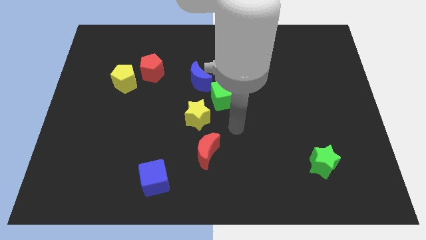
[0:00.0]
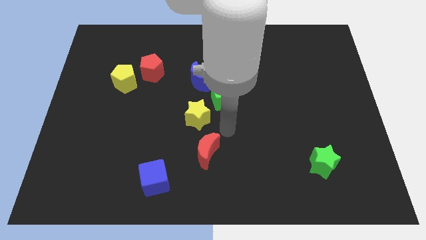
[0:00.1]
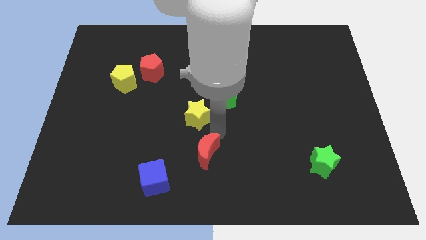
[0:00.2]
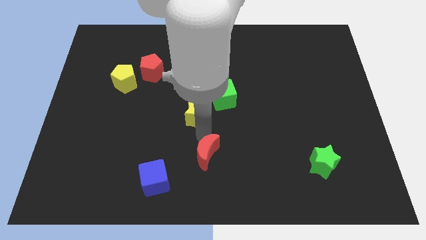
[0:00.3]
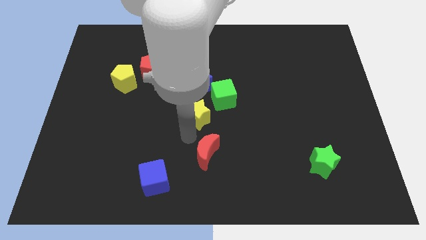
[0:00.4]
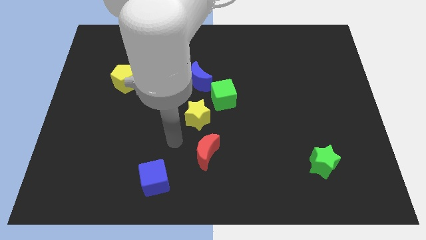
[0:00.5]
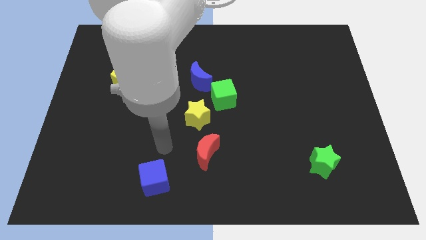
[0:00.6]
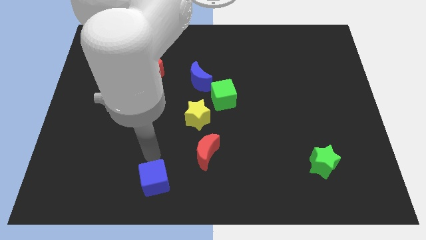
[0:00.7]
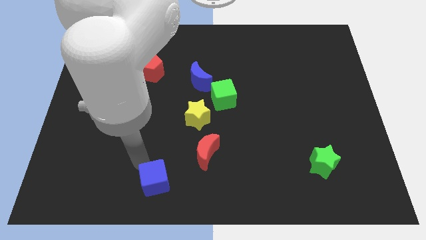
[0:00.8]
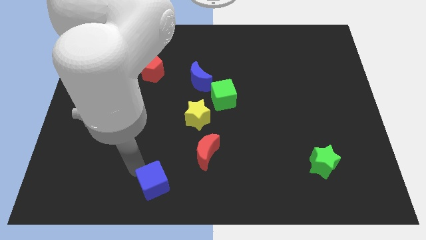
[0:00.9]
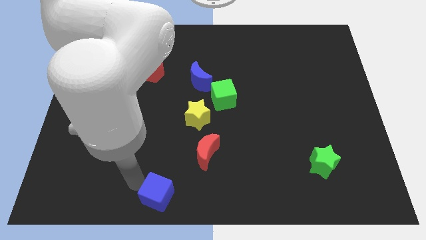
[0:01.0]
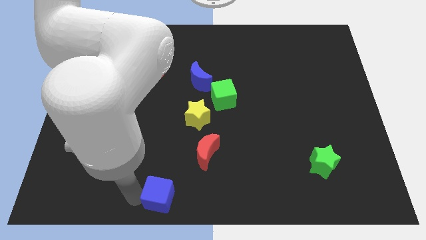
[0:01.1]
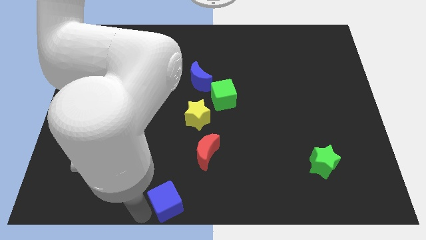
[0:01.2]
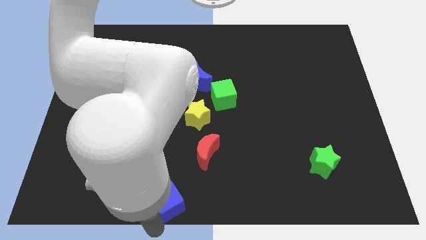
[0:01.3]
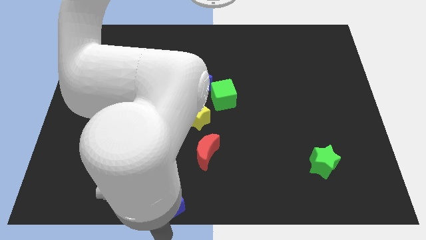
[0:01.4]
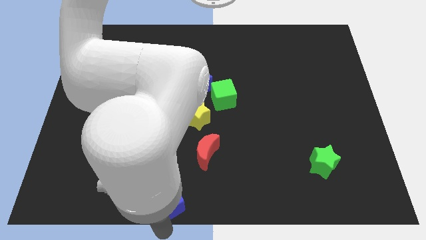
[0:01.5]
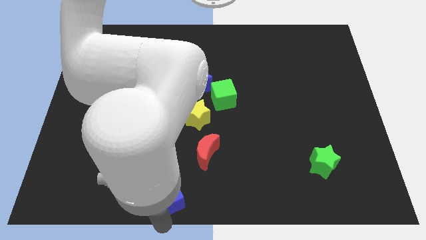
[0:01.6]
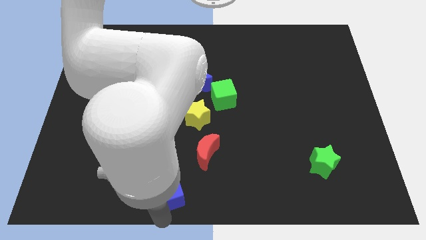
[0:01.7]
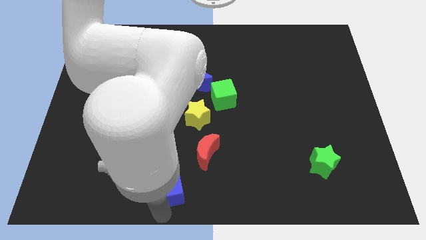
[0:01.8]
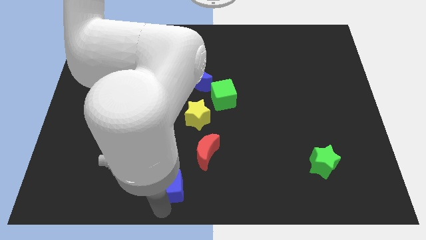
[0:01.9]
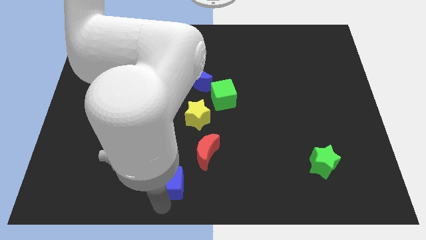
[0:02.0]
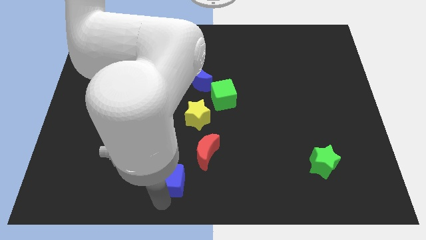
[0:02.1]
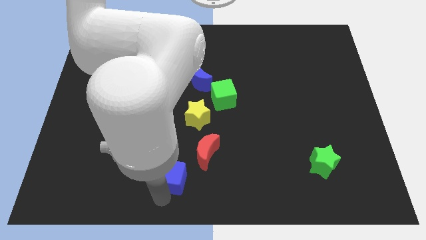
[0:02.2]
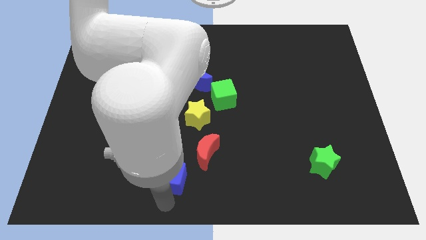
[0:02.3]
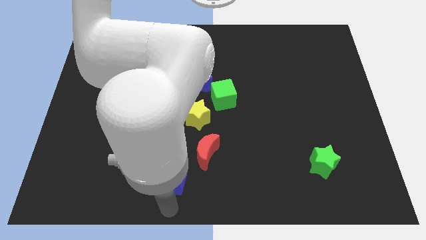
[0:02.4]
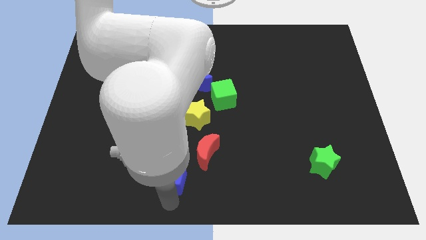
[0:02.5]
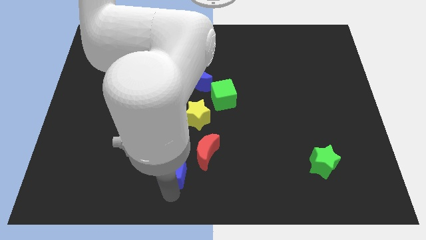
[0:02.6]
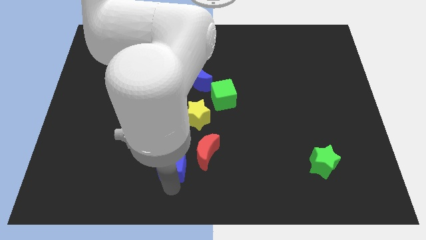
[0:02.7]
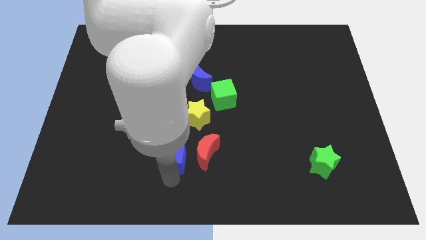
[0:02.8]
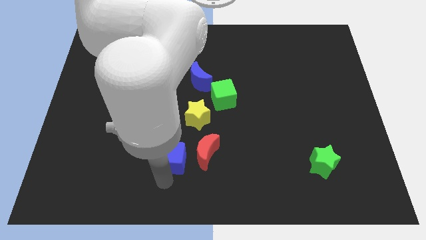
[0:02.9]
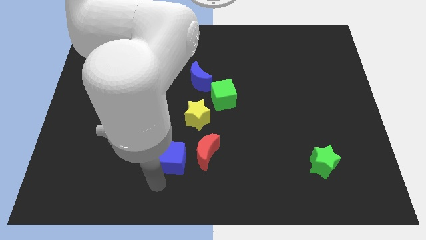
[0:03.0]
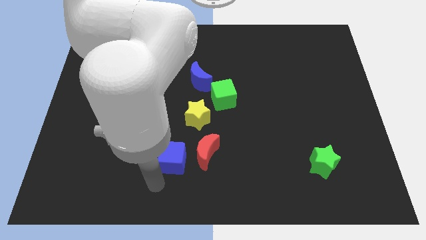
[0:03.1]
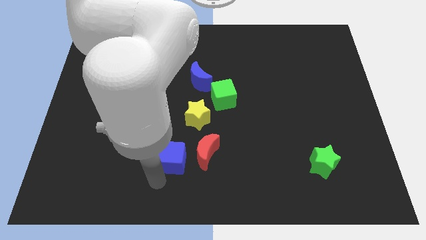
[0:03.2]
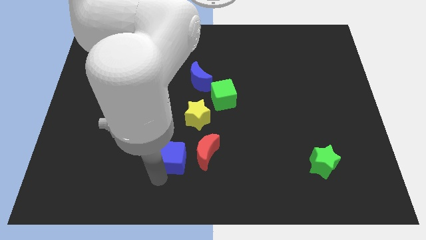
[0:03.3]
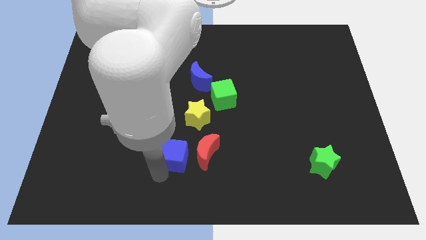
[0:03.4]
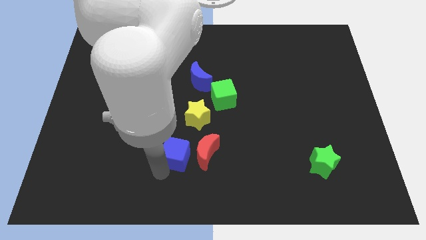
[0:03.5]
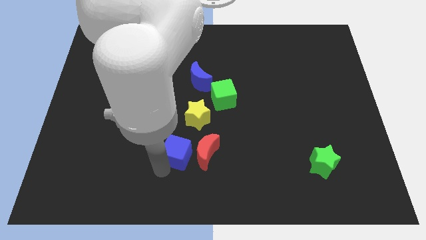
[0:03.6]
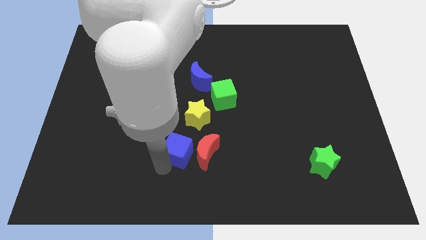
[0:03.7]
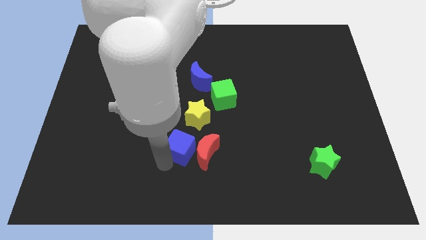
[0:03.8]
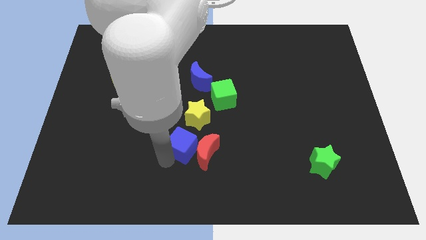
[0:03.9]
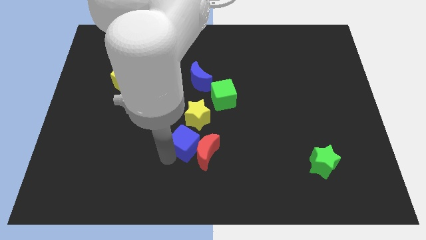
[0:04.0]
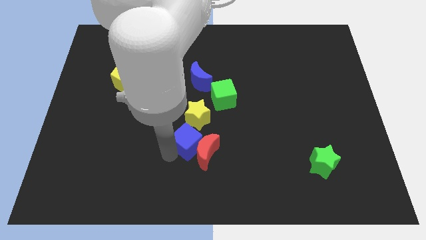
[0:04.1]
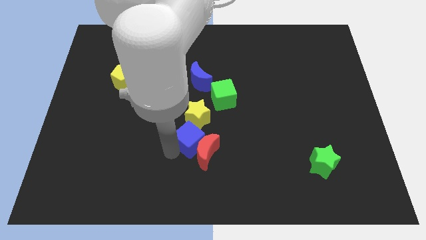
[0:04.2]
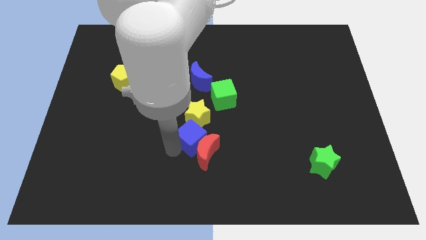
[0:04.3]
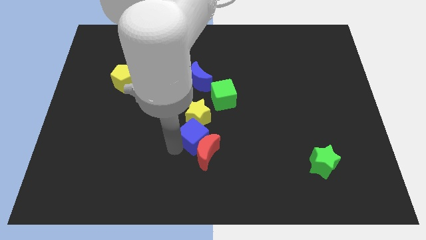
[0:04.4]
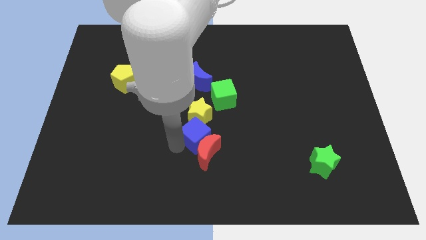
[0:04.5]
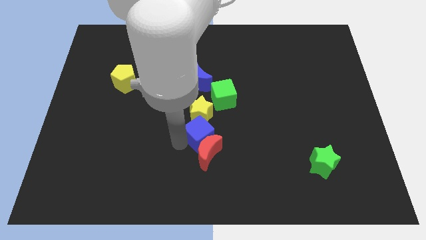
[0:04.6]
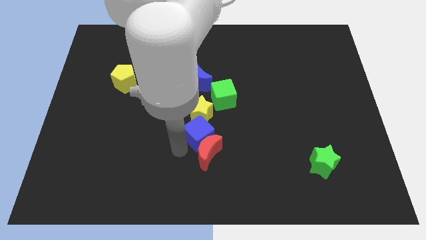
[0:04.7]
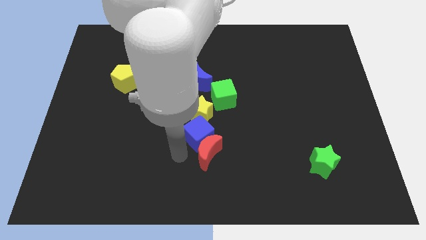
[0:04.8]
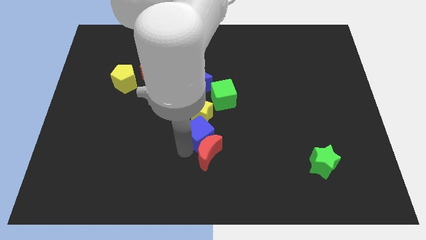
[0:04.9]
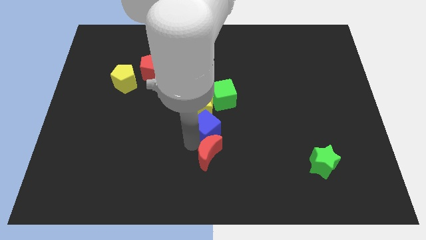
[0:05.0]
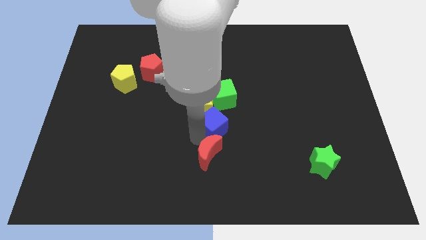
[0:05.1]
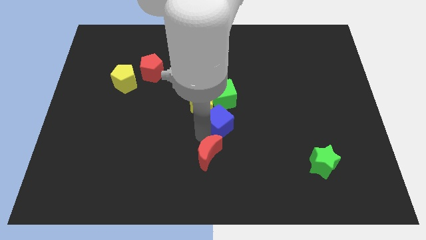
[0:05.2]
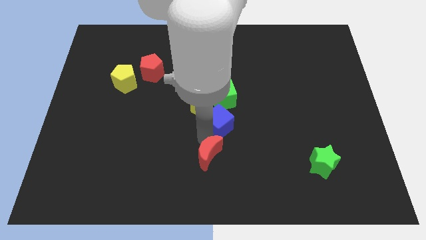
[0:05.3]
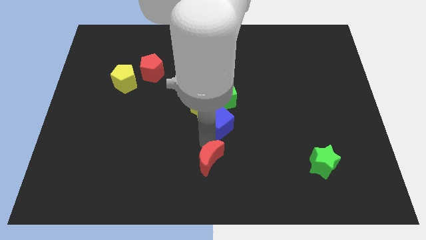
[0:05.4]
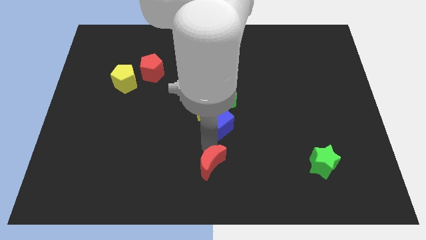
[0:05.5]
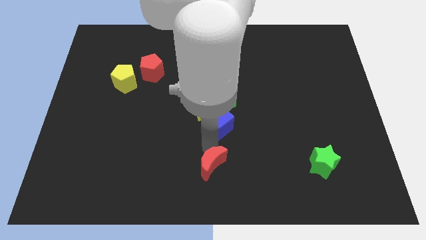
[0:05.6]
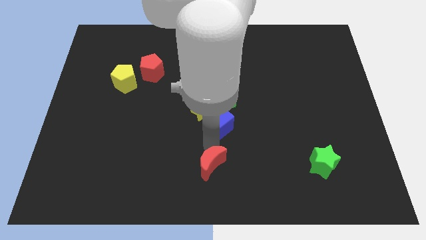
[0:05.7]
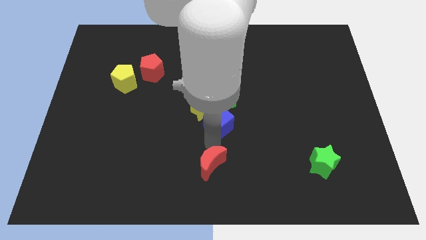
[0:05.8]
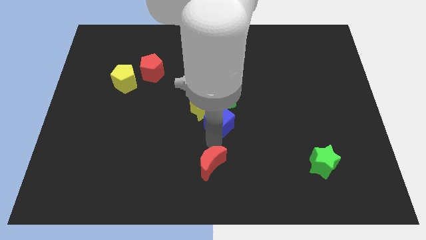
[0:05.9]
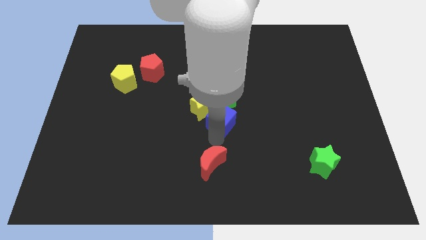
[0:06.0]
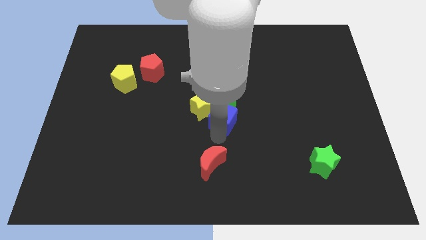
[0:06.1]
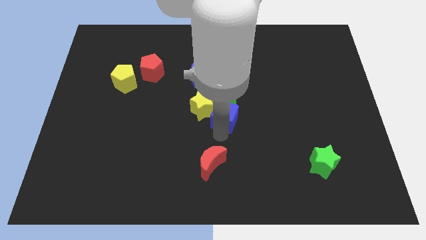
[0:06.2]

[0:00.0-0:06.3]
slide the blue cube to the green cube
